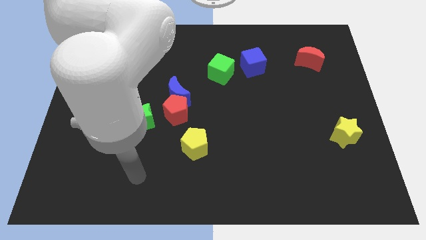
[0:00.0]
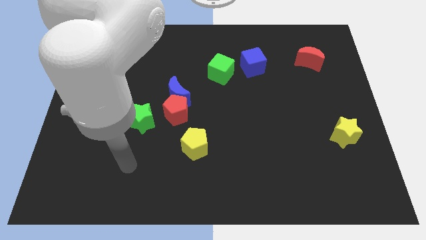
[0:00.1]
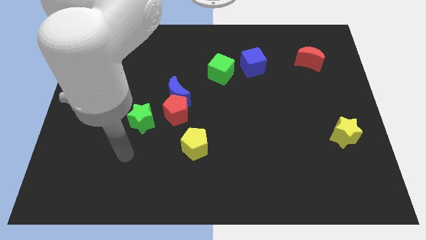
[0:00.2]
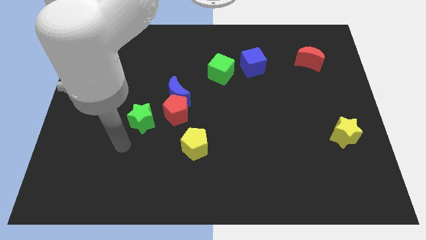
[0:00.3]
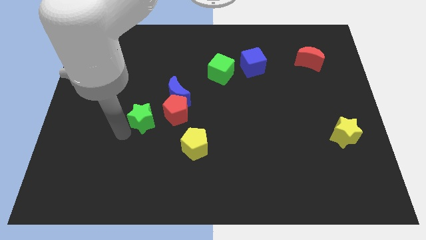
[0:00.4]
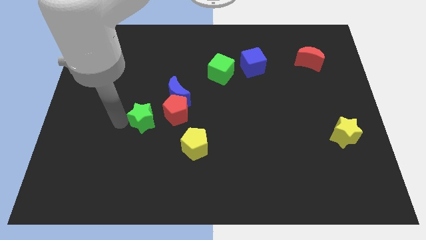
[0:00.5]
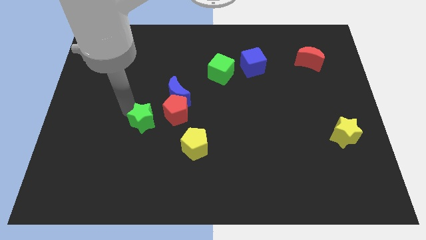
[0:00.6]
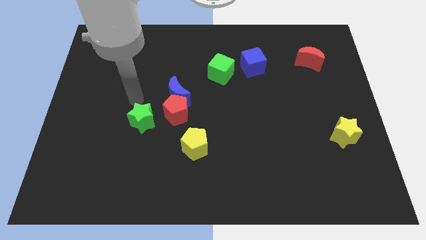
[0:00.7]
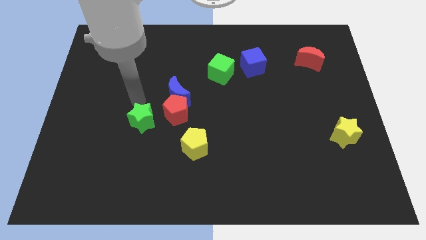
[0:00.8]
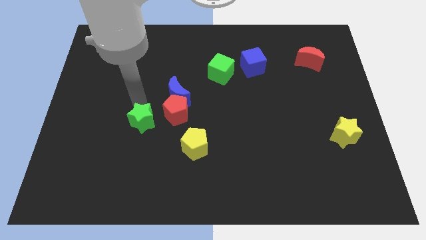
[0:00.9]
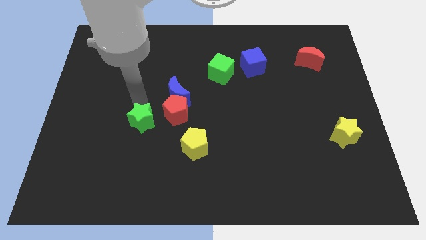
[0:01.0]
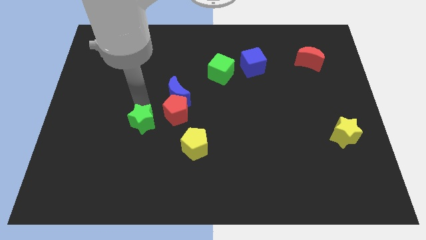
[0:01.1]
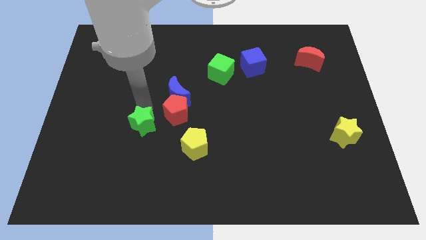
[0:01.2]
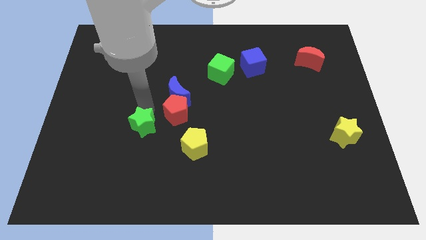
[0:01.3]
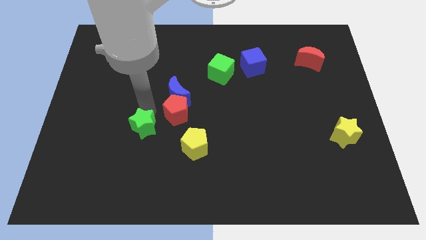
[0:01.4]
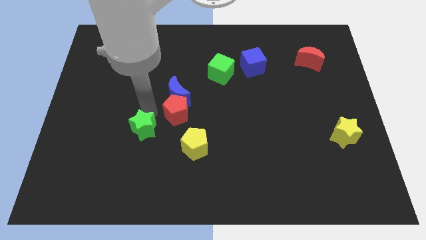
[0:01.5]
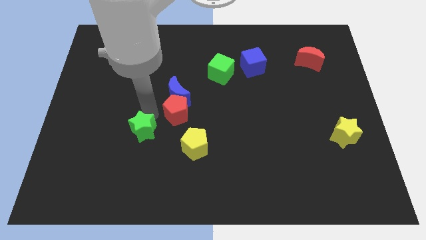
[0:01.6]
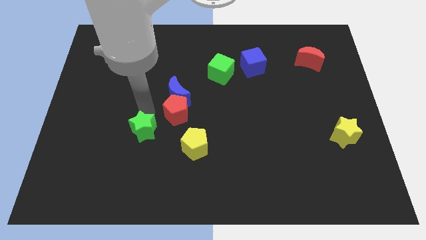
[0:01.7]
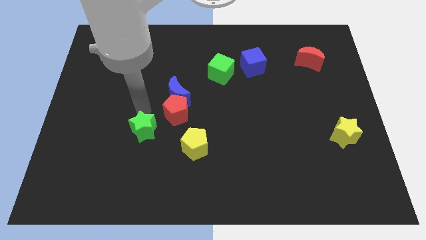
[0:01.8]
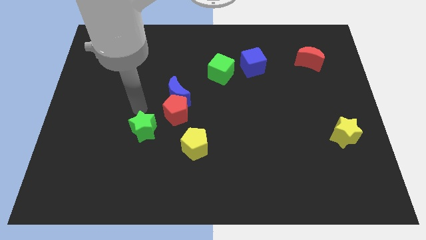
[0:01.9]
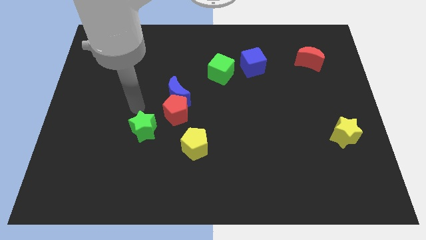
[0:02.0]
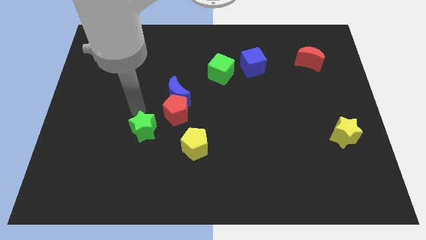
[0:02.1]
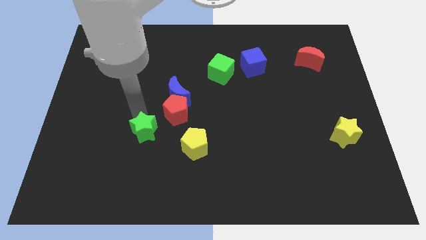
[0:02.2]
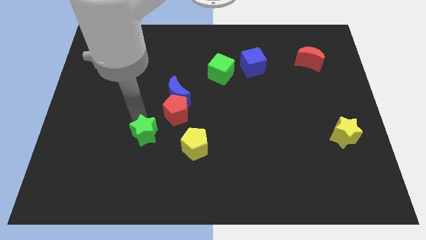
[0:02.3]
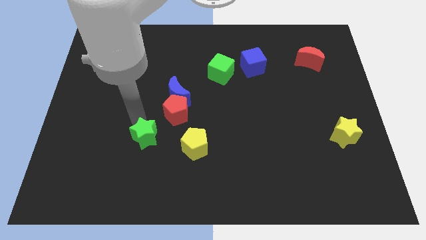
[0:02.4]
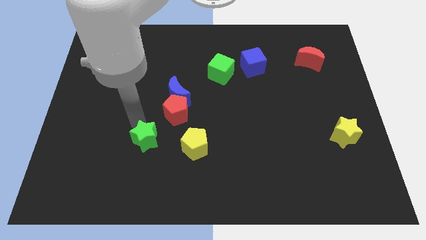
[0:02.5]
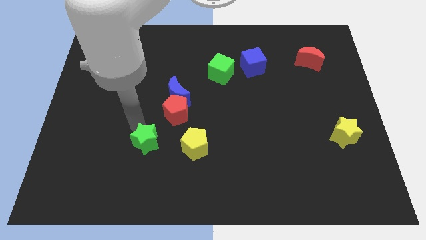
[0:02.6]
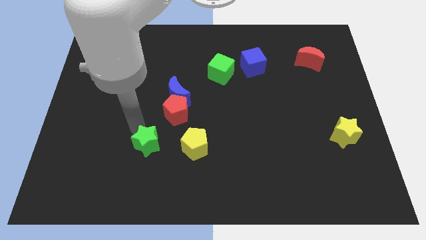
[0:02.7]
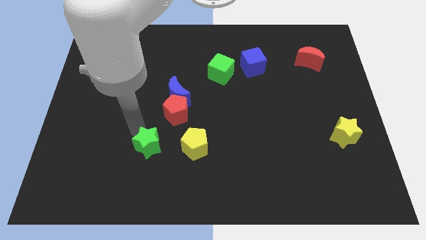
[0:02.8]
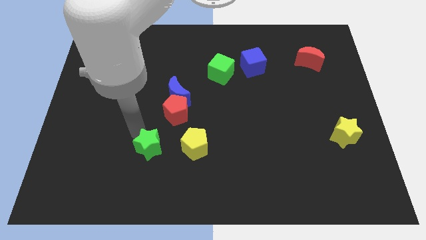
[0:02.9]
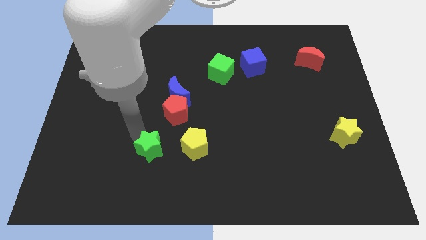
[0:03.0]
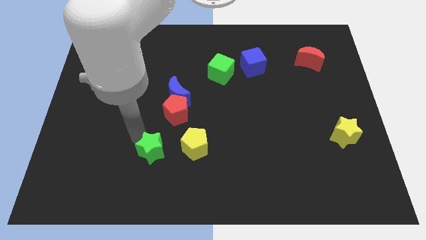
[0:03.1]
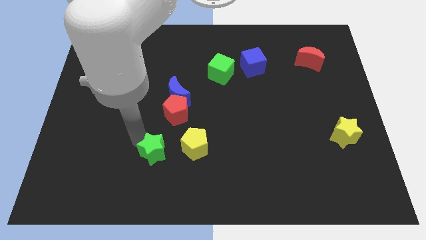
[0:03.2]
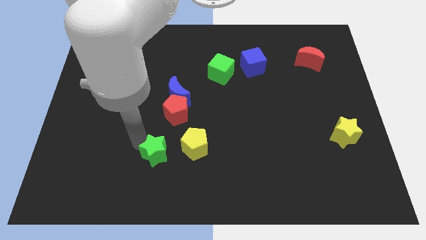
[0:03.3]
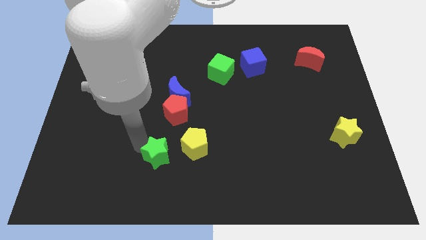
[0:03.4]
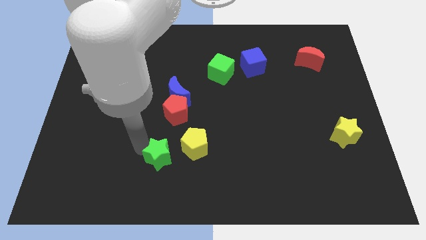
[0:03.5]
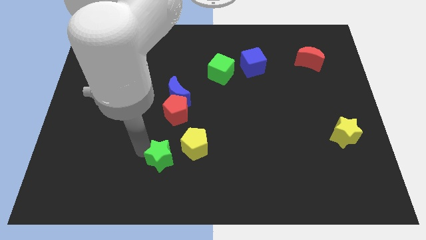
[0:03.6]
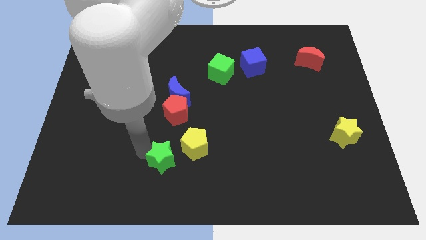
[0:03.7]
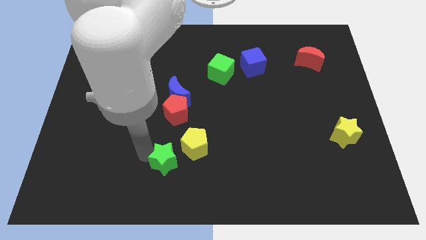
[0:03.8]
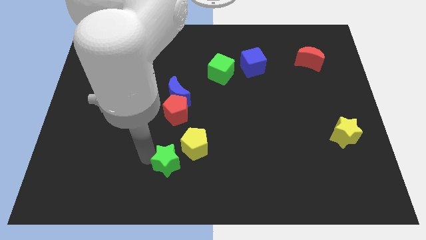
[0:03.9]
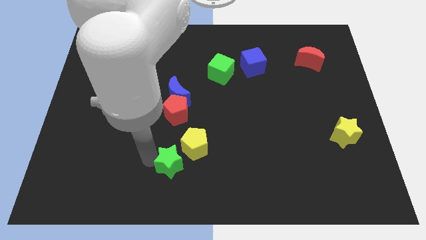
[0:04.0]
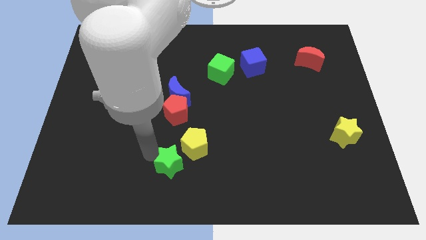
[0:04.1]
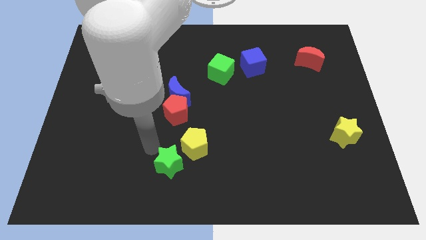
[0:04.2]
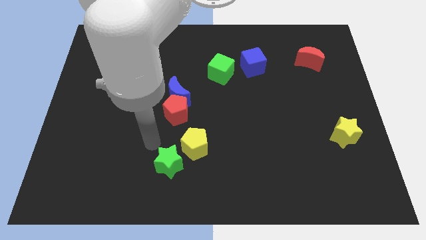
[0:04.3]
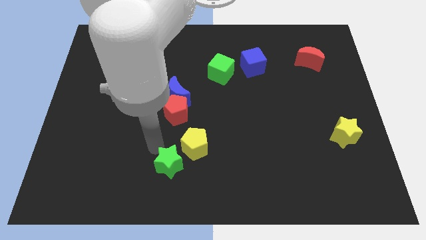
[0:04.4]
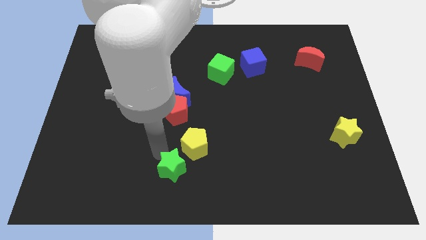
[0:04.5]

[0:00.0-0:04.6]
push the green star to the bottom side

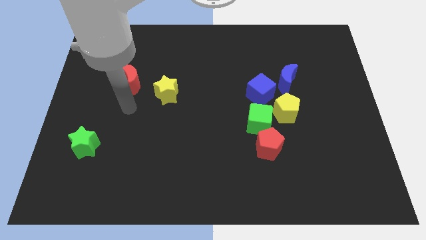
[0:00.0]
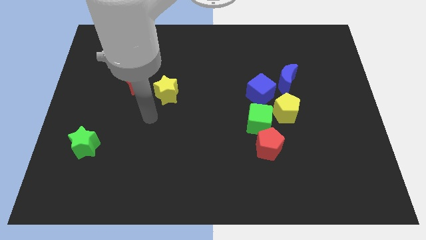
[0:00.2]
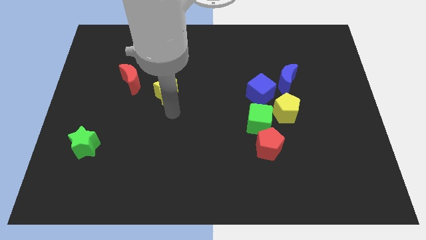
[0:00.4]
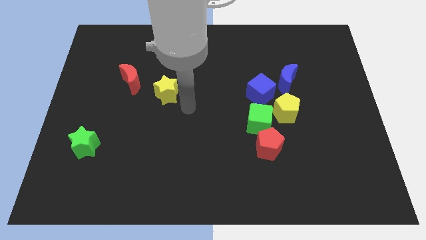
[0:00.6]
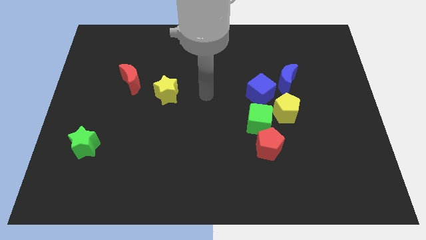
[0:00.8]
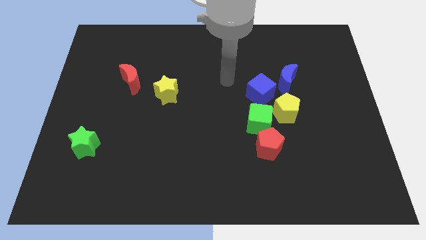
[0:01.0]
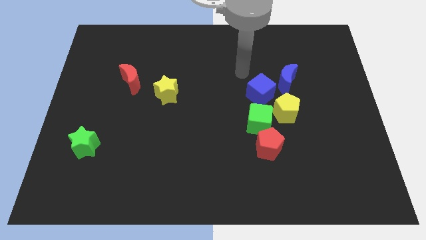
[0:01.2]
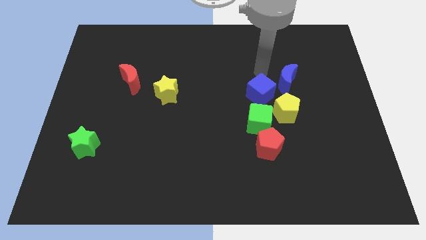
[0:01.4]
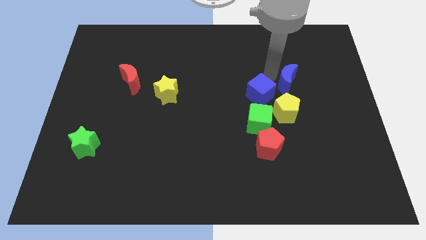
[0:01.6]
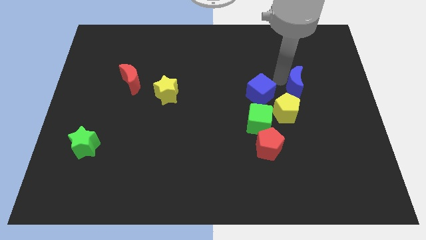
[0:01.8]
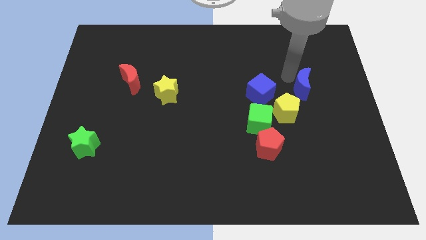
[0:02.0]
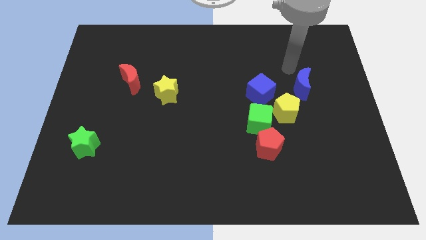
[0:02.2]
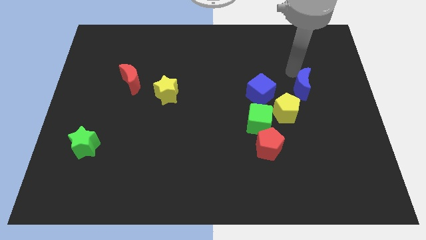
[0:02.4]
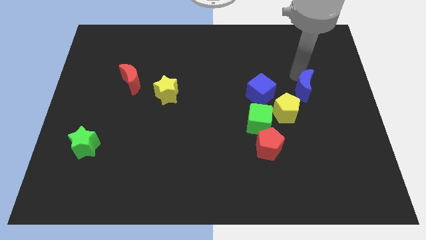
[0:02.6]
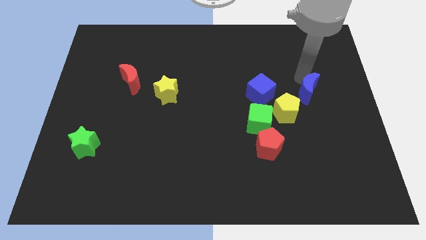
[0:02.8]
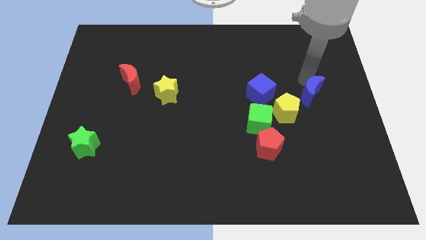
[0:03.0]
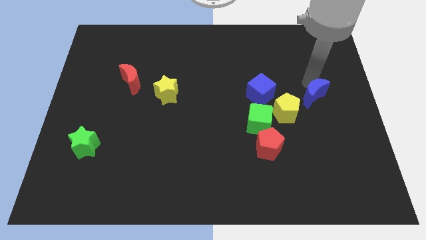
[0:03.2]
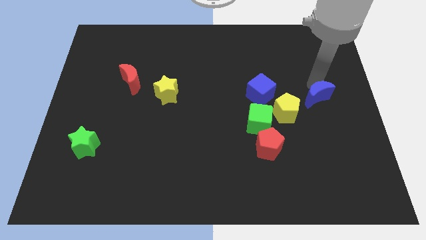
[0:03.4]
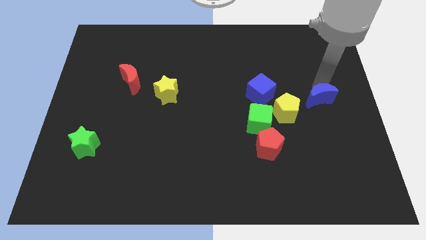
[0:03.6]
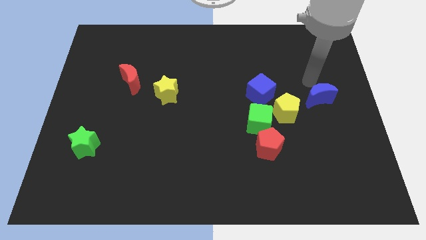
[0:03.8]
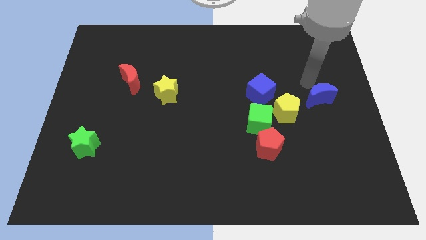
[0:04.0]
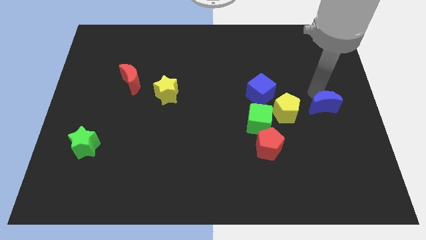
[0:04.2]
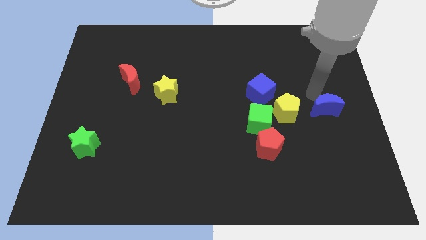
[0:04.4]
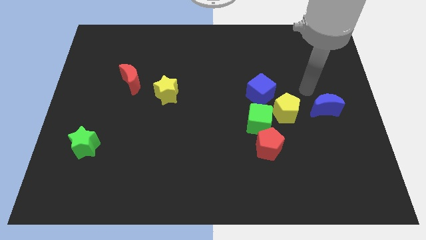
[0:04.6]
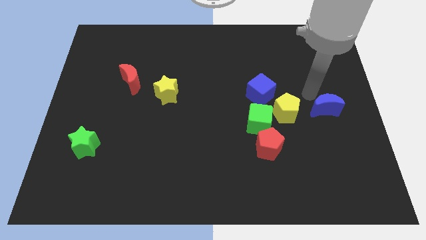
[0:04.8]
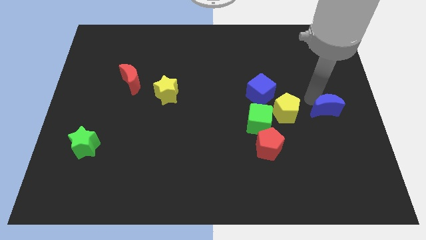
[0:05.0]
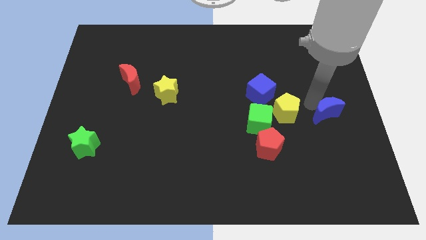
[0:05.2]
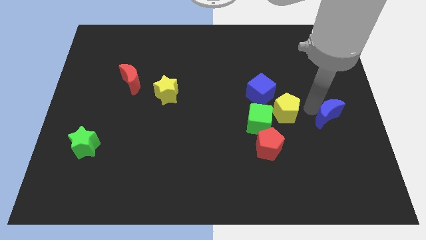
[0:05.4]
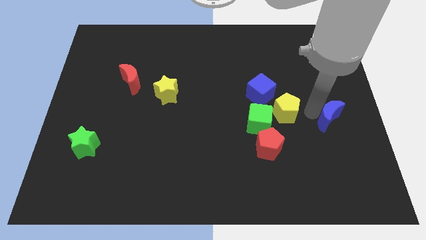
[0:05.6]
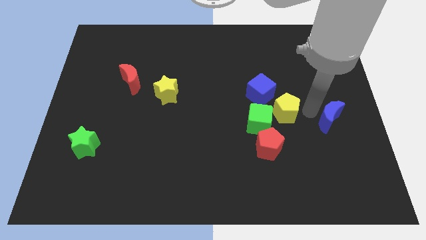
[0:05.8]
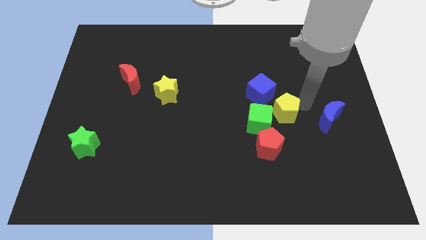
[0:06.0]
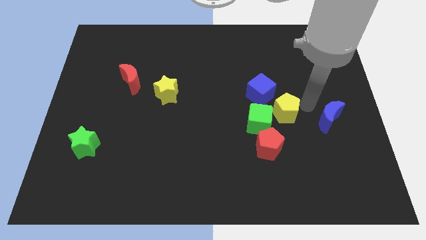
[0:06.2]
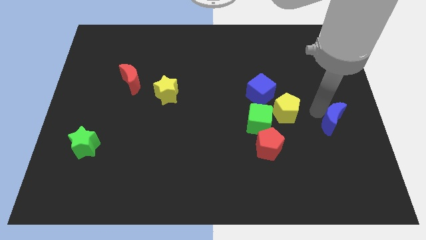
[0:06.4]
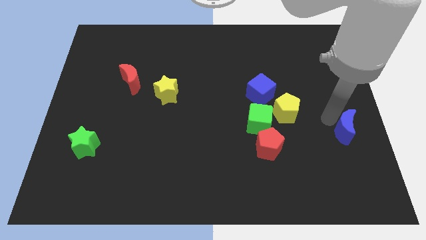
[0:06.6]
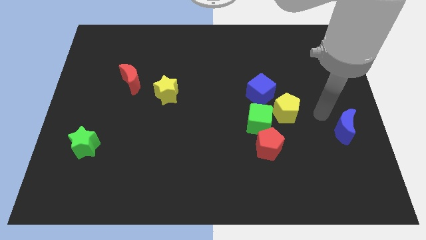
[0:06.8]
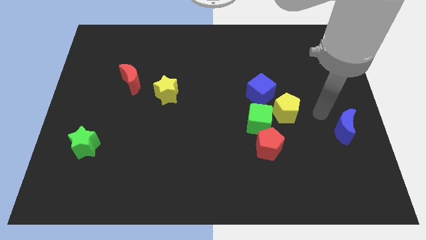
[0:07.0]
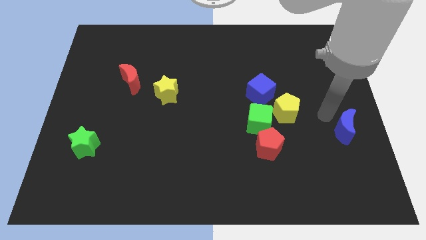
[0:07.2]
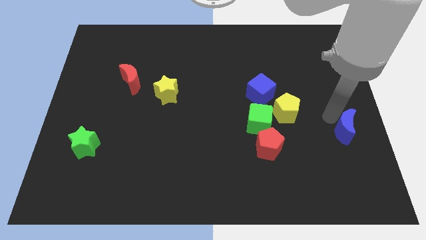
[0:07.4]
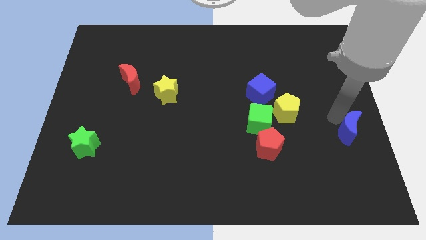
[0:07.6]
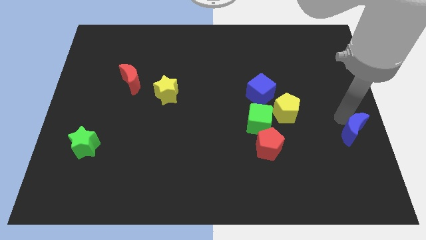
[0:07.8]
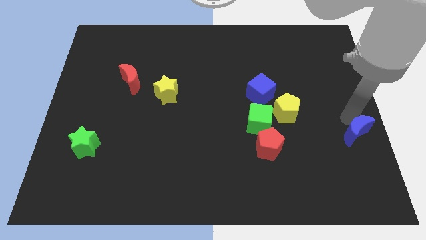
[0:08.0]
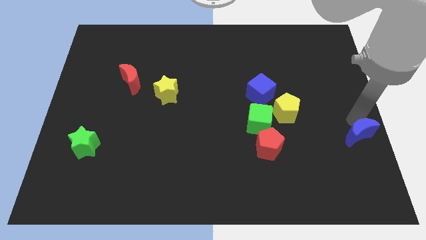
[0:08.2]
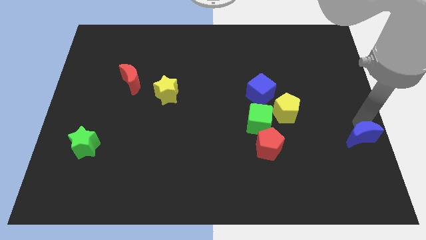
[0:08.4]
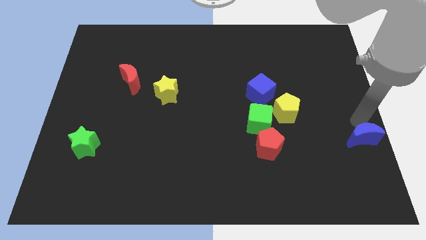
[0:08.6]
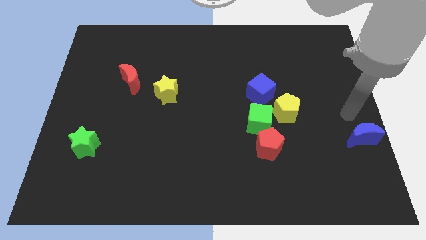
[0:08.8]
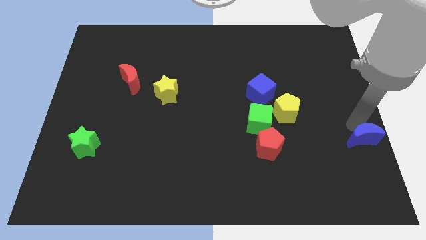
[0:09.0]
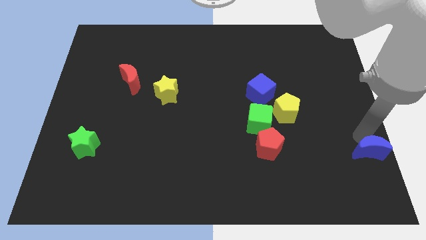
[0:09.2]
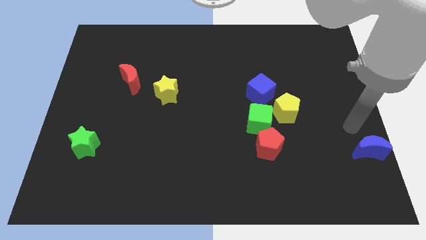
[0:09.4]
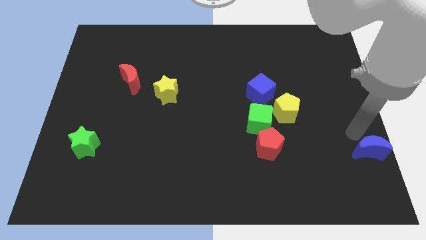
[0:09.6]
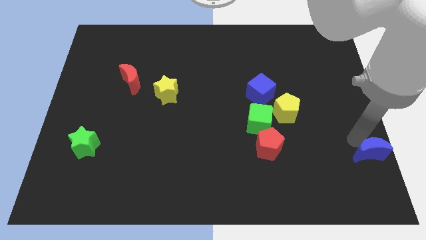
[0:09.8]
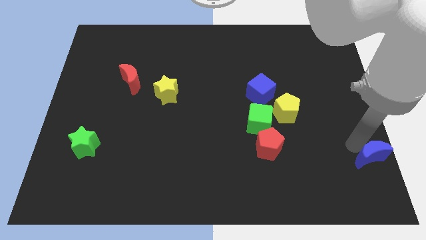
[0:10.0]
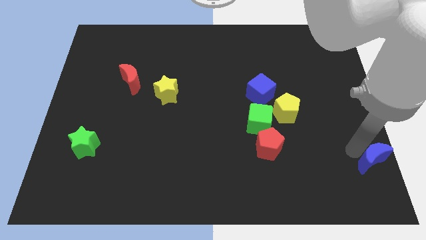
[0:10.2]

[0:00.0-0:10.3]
put the blue moon to the bottom right of the board
